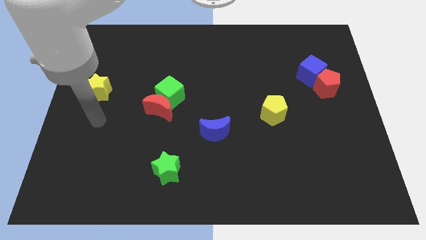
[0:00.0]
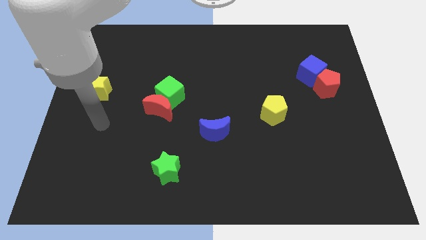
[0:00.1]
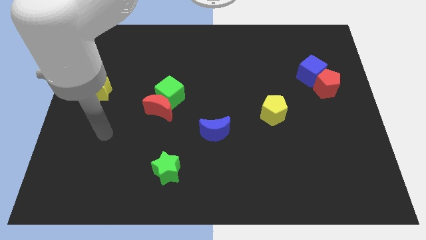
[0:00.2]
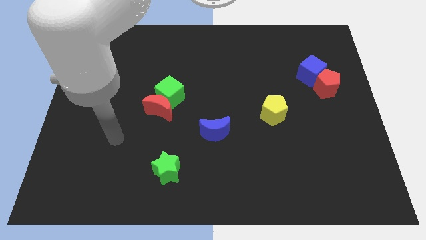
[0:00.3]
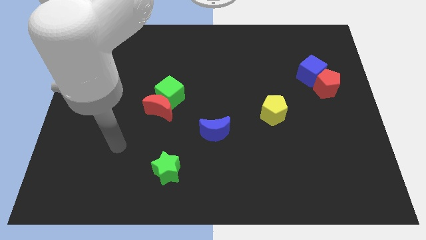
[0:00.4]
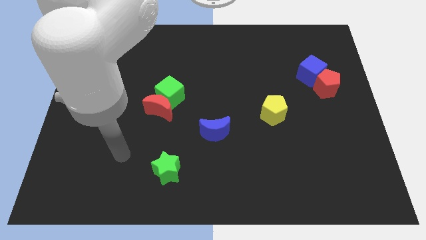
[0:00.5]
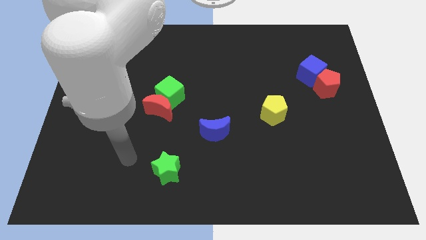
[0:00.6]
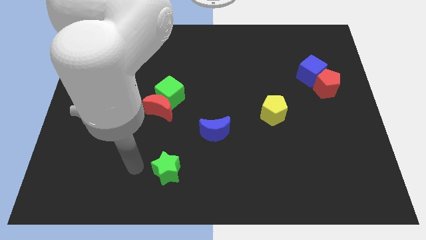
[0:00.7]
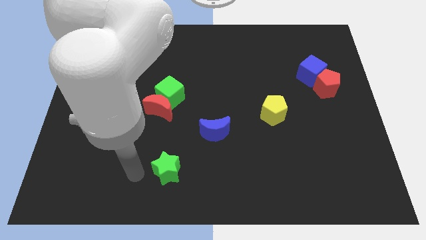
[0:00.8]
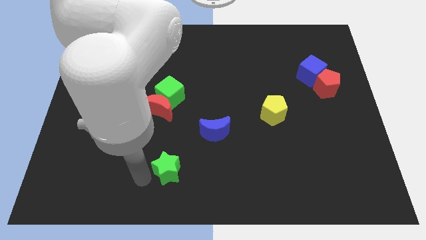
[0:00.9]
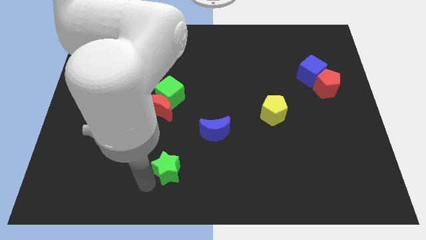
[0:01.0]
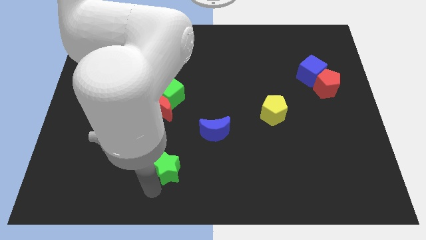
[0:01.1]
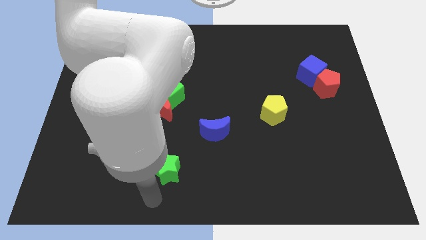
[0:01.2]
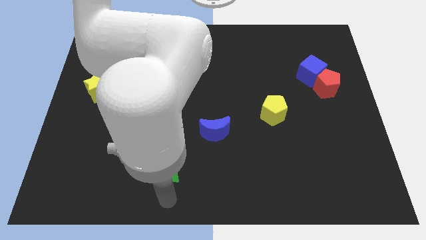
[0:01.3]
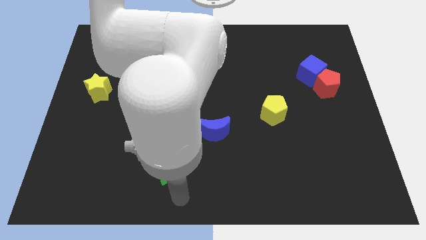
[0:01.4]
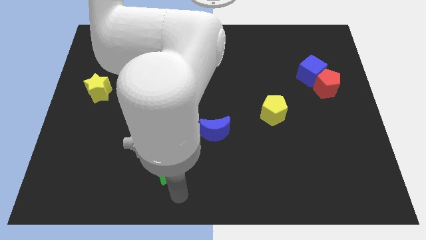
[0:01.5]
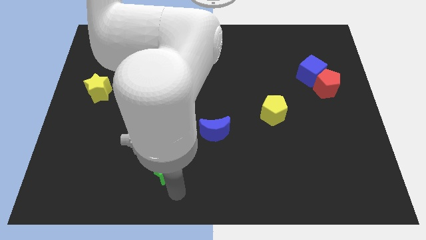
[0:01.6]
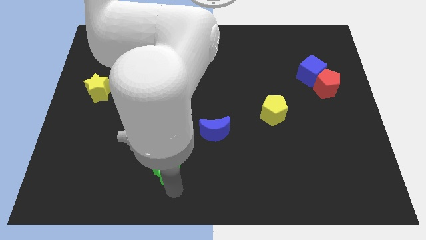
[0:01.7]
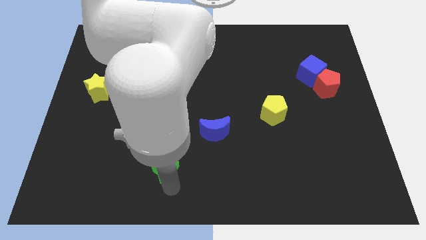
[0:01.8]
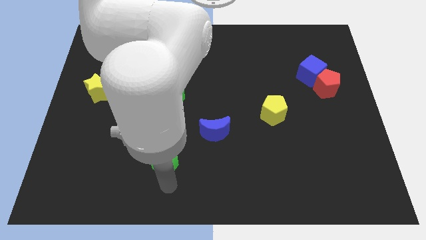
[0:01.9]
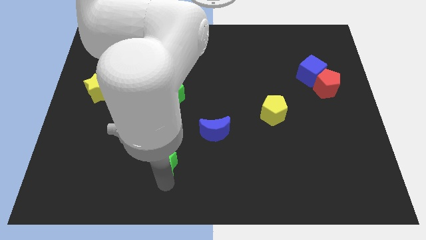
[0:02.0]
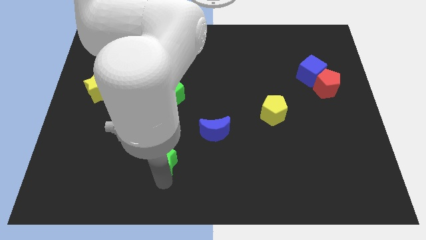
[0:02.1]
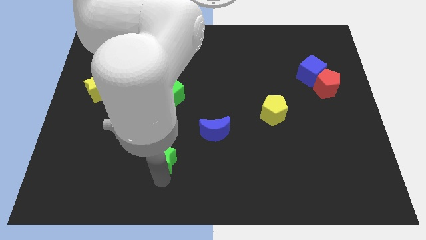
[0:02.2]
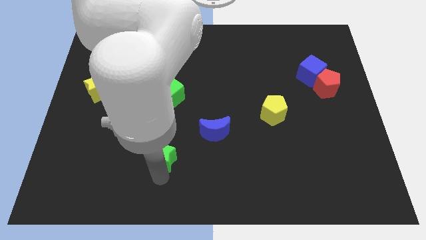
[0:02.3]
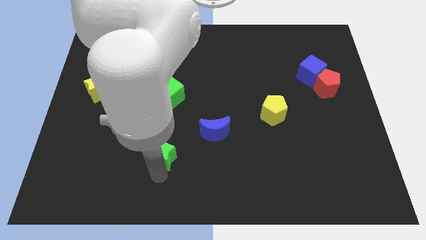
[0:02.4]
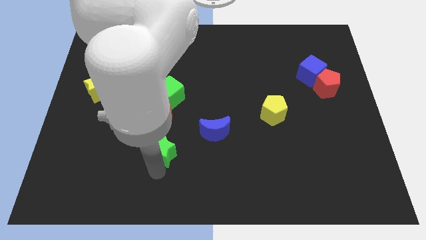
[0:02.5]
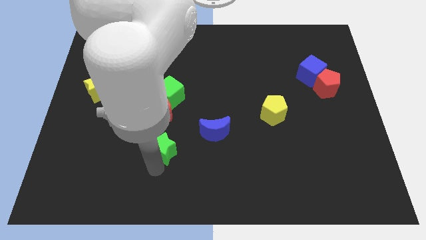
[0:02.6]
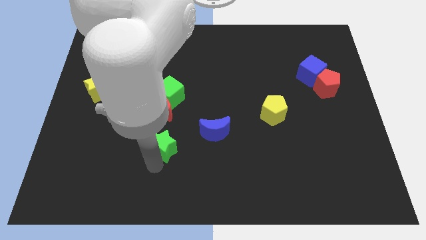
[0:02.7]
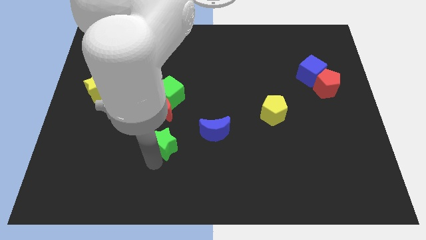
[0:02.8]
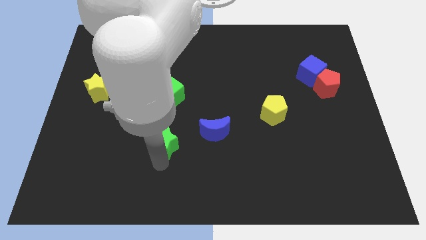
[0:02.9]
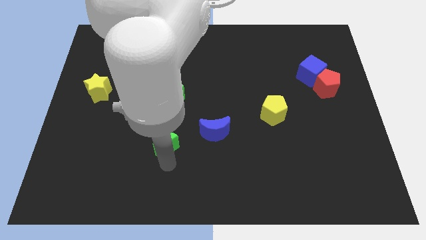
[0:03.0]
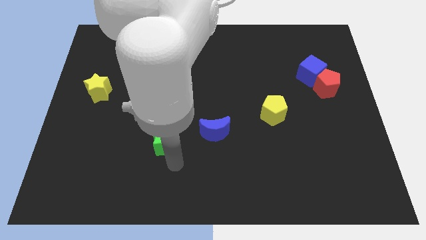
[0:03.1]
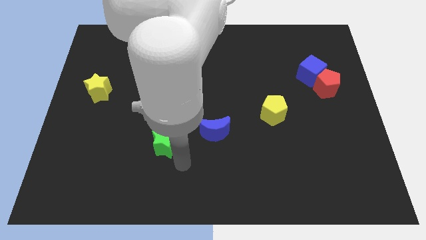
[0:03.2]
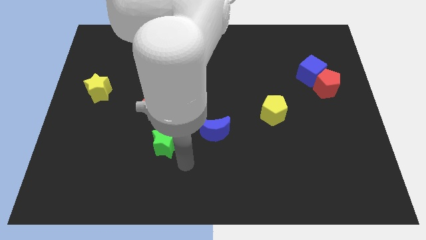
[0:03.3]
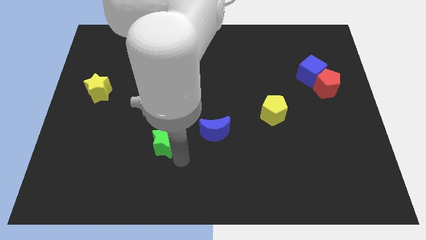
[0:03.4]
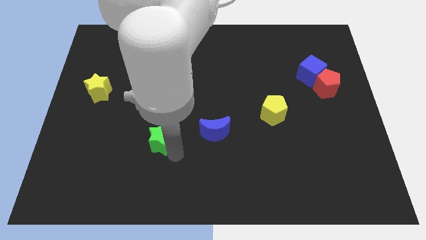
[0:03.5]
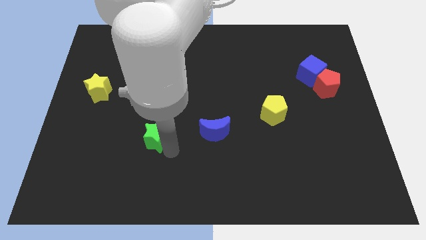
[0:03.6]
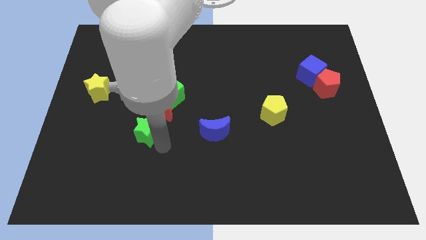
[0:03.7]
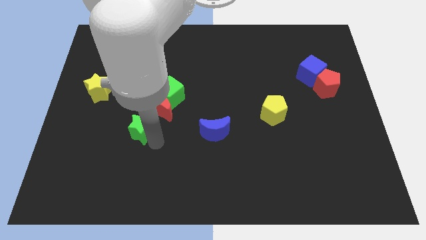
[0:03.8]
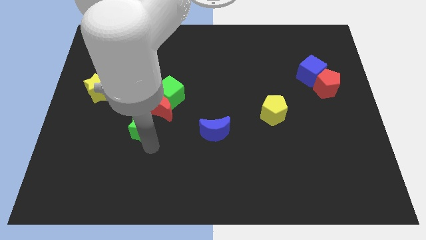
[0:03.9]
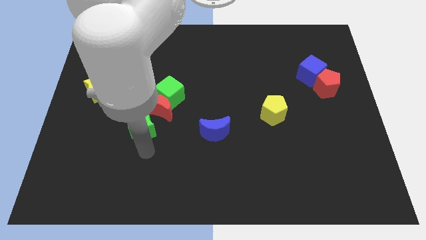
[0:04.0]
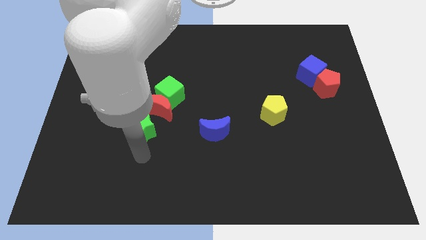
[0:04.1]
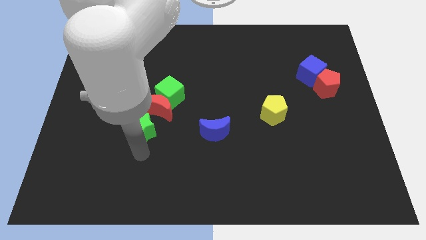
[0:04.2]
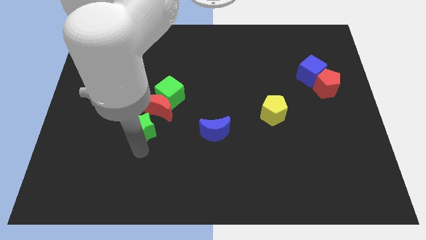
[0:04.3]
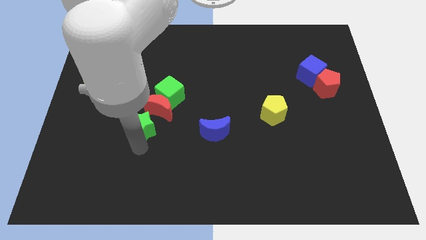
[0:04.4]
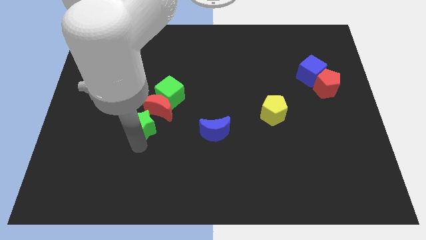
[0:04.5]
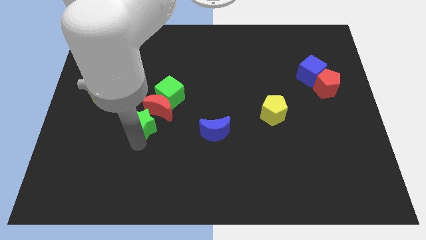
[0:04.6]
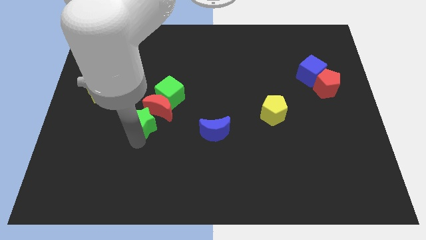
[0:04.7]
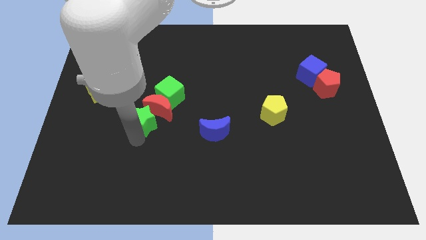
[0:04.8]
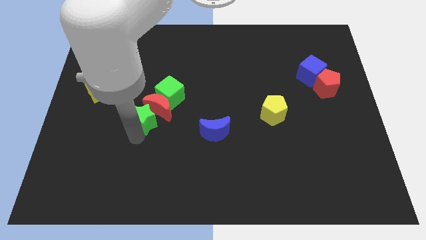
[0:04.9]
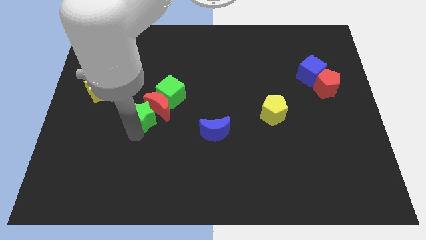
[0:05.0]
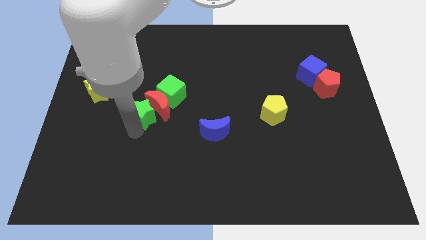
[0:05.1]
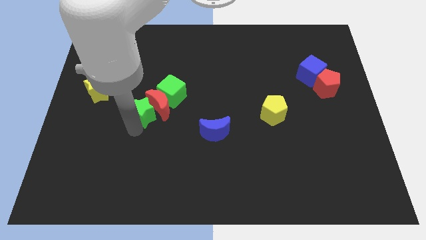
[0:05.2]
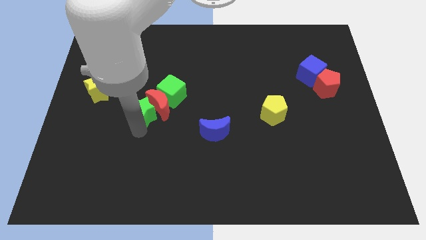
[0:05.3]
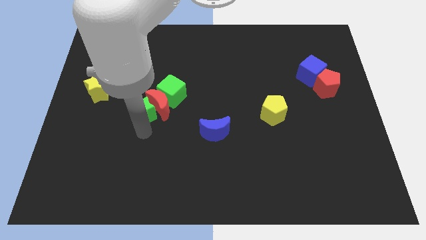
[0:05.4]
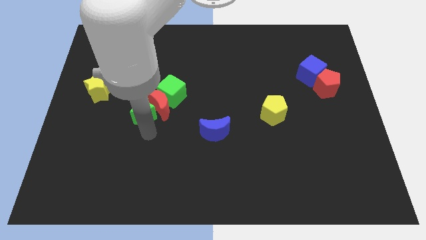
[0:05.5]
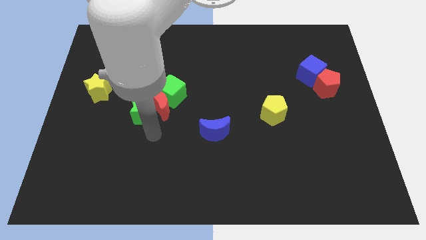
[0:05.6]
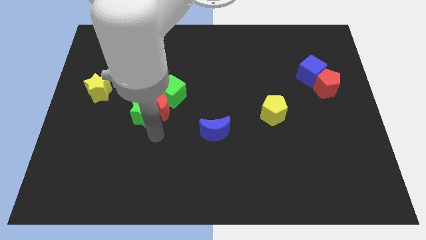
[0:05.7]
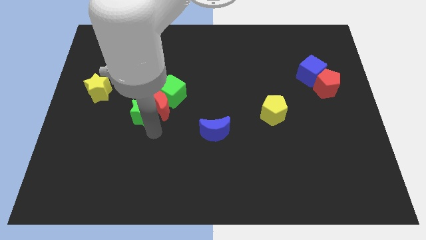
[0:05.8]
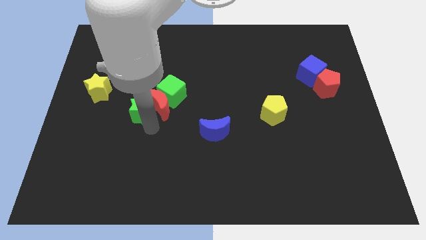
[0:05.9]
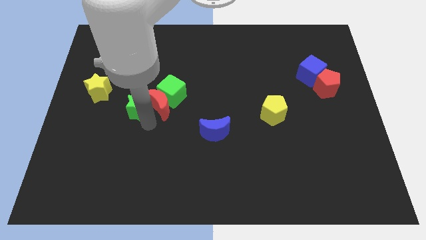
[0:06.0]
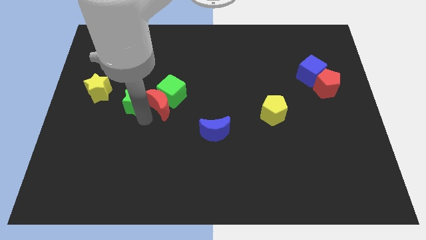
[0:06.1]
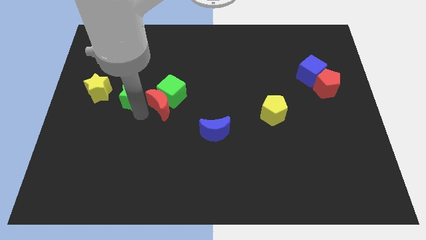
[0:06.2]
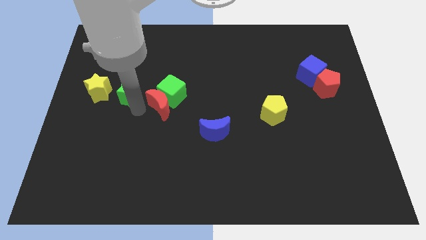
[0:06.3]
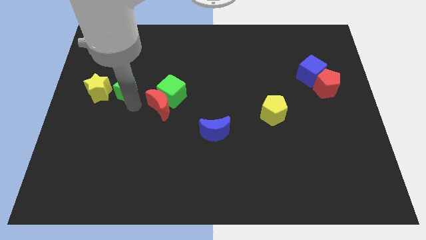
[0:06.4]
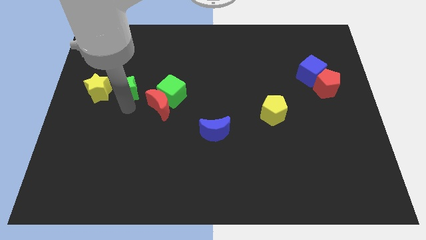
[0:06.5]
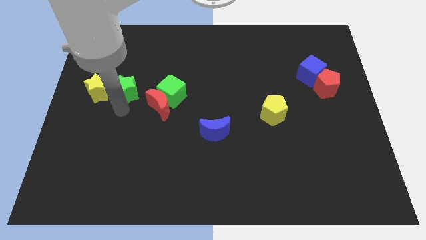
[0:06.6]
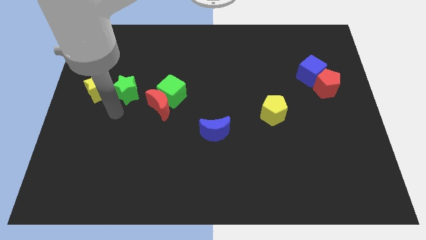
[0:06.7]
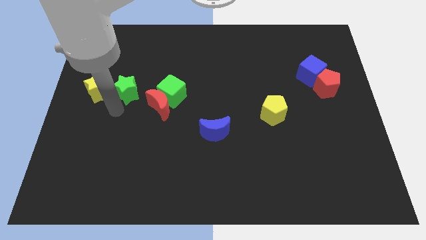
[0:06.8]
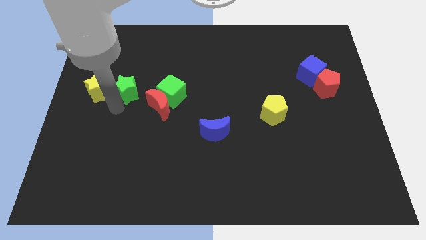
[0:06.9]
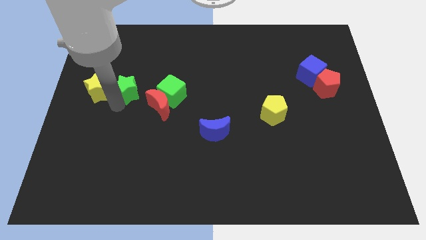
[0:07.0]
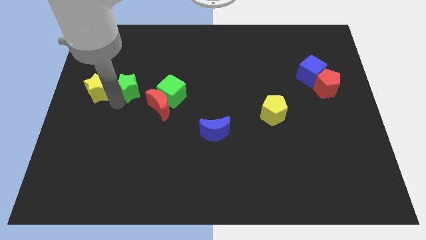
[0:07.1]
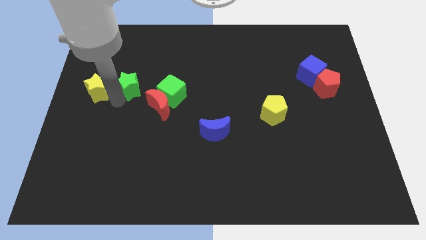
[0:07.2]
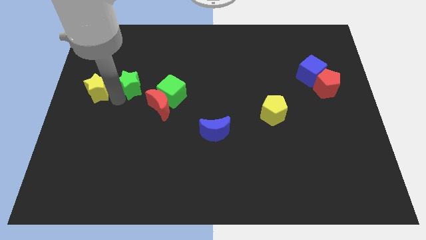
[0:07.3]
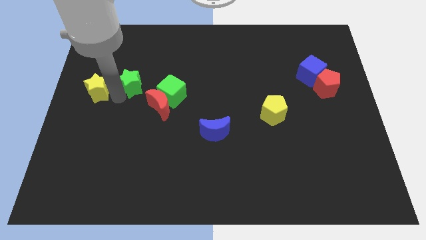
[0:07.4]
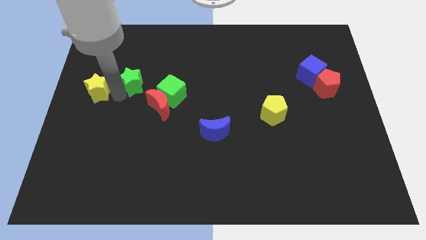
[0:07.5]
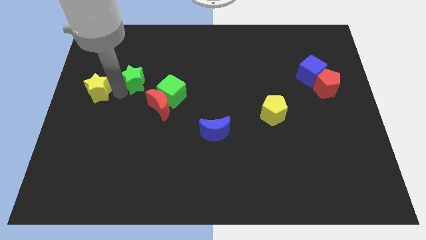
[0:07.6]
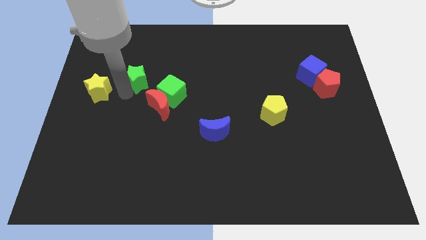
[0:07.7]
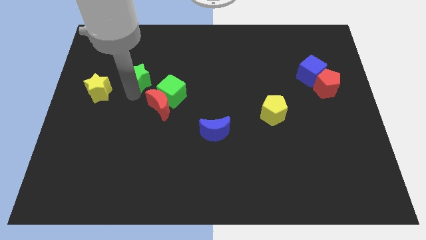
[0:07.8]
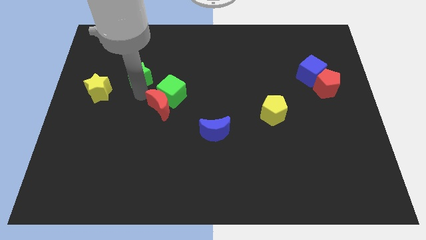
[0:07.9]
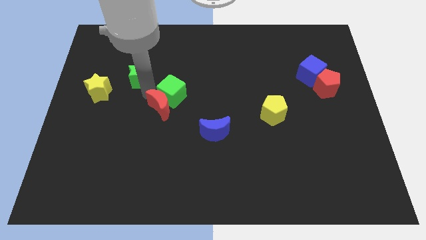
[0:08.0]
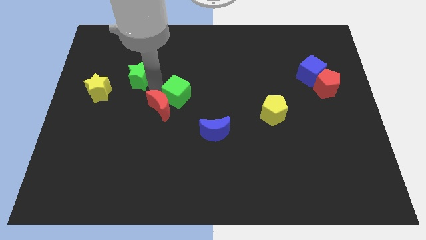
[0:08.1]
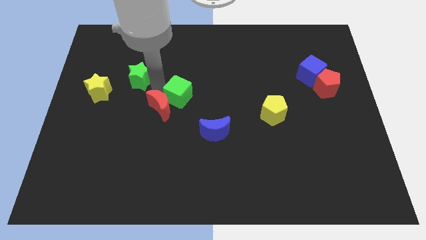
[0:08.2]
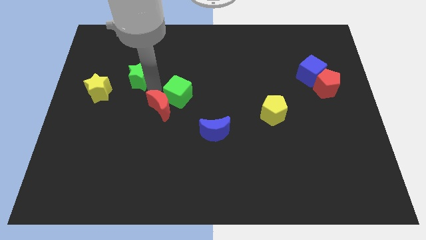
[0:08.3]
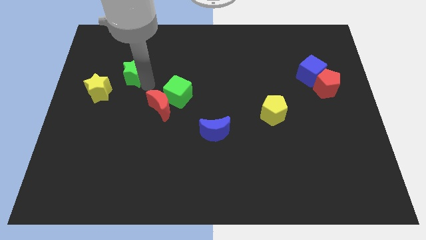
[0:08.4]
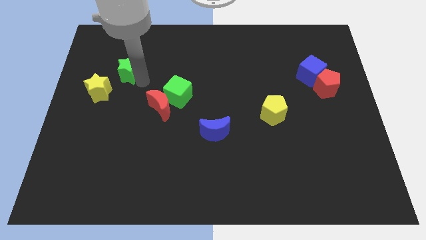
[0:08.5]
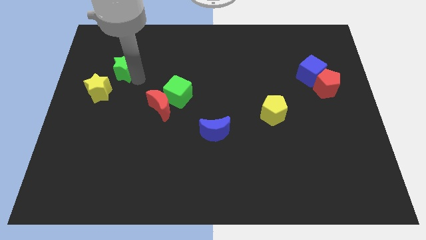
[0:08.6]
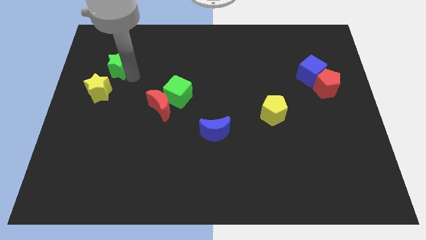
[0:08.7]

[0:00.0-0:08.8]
put the green star to the top of the yellow star
